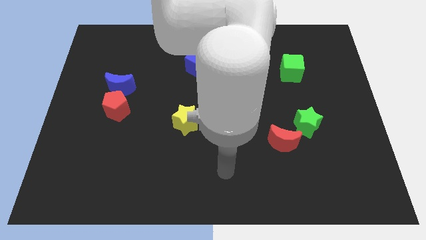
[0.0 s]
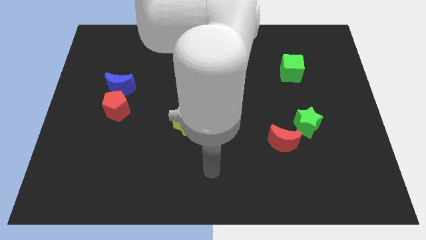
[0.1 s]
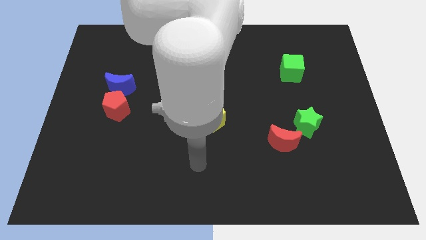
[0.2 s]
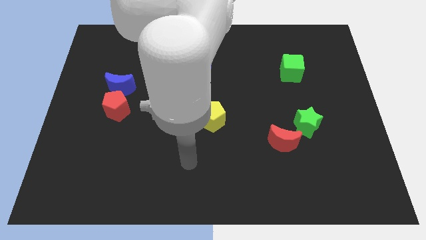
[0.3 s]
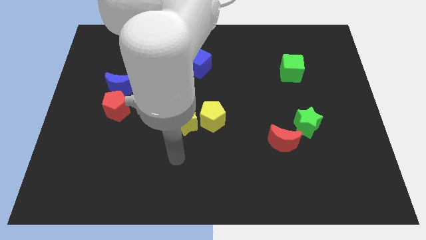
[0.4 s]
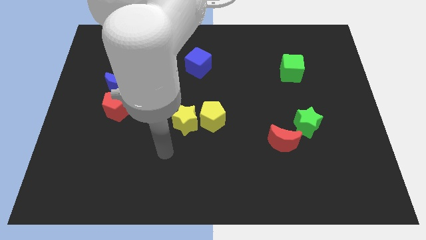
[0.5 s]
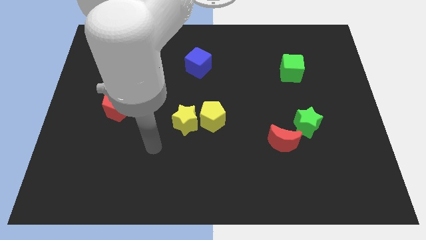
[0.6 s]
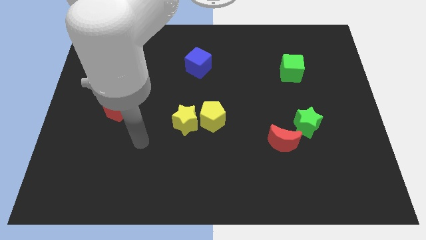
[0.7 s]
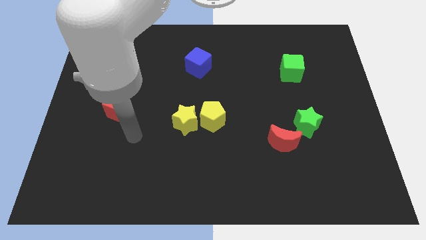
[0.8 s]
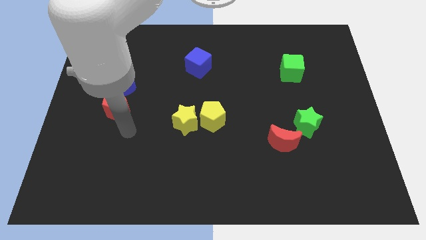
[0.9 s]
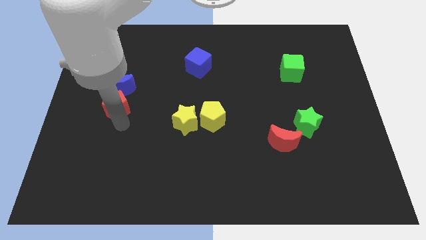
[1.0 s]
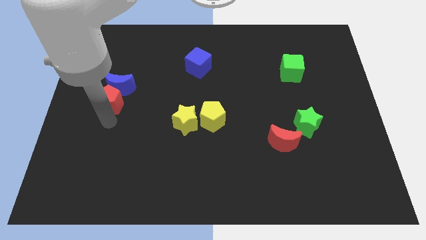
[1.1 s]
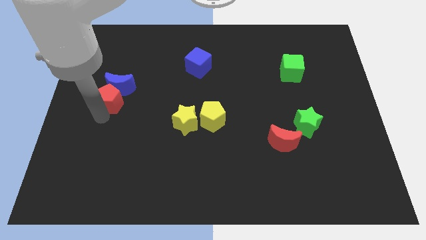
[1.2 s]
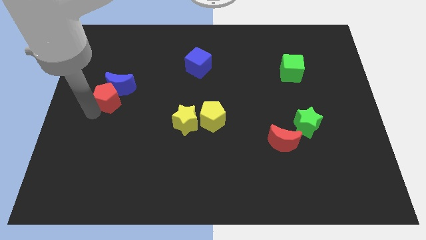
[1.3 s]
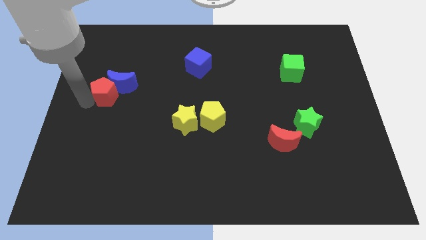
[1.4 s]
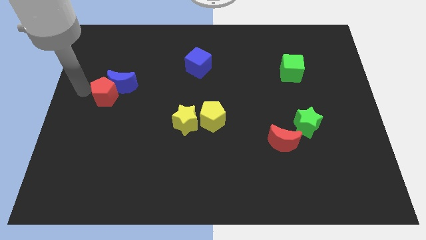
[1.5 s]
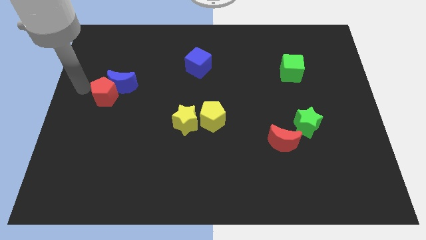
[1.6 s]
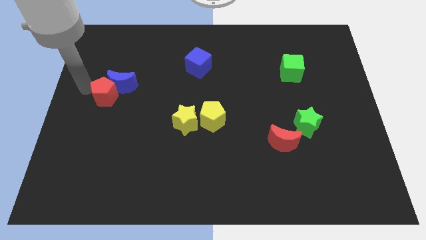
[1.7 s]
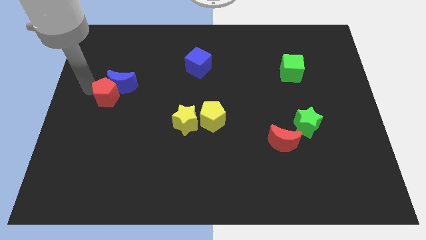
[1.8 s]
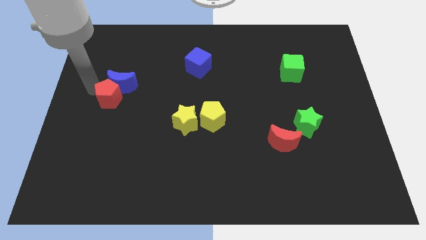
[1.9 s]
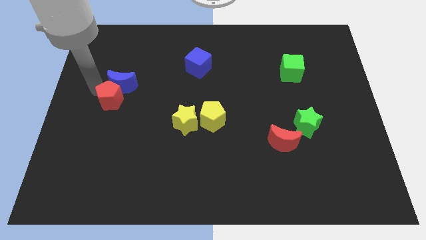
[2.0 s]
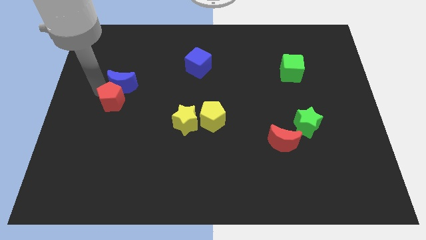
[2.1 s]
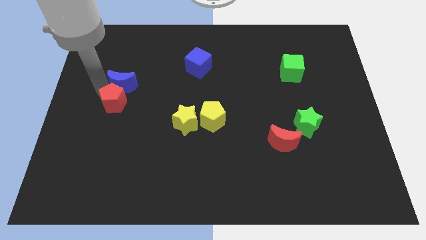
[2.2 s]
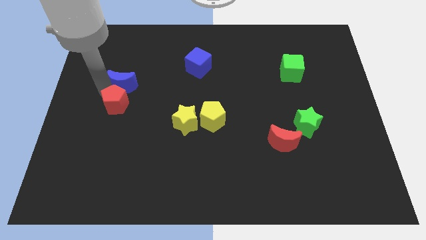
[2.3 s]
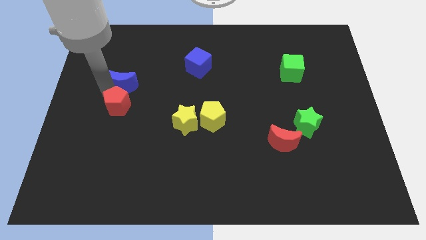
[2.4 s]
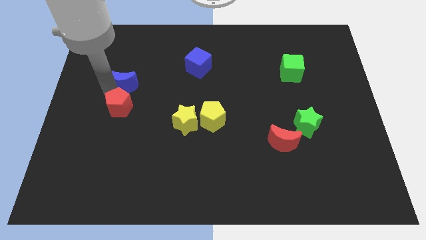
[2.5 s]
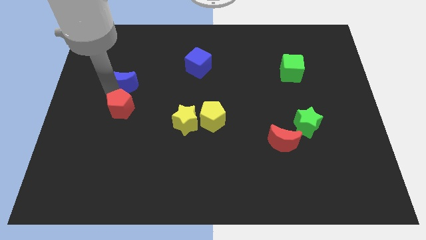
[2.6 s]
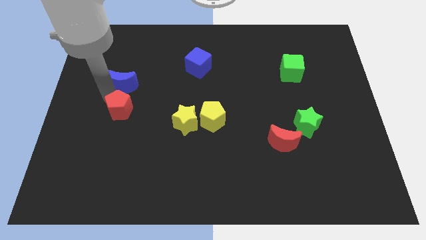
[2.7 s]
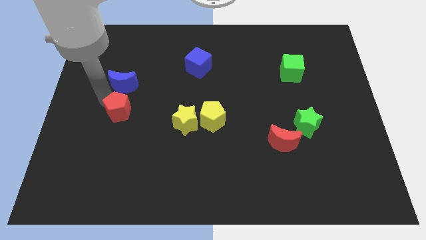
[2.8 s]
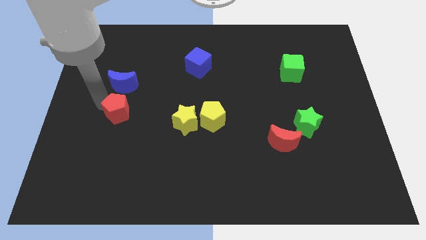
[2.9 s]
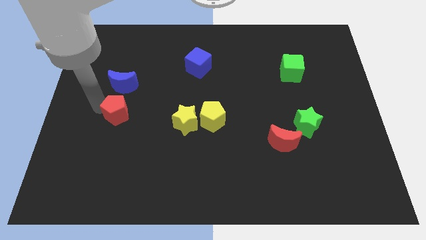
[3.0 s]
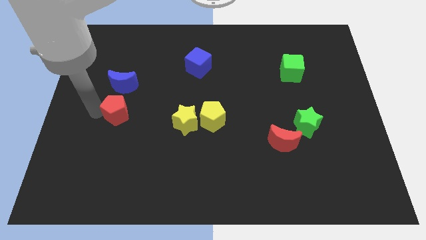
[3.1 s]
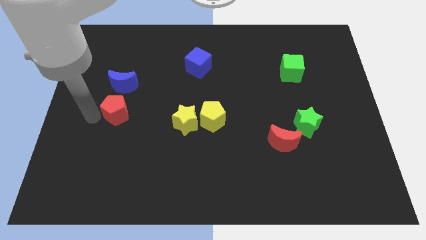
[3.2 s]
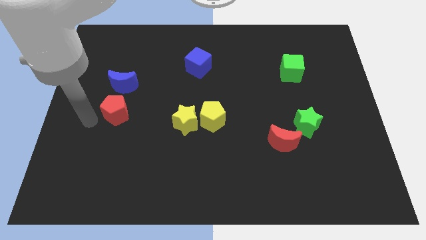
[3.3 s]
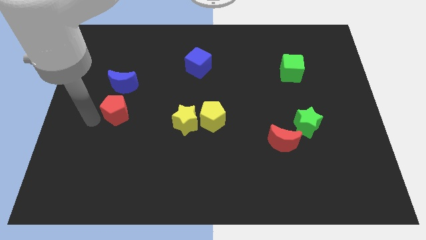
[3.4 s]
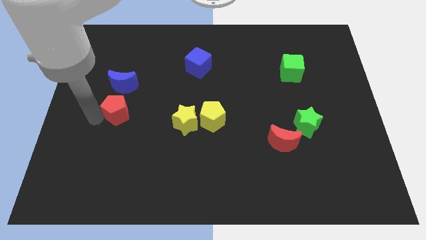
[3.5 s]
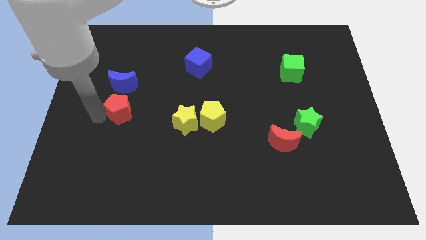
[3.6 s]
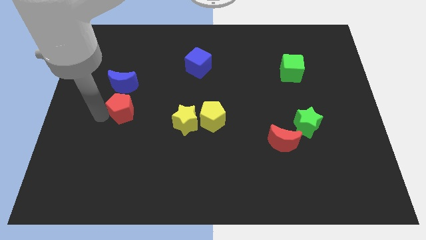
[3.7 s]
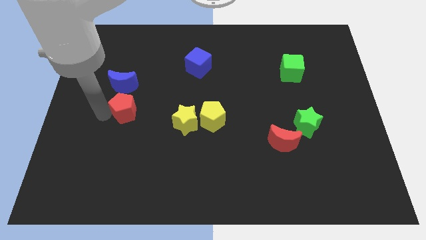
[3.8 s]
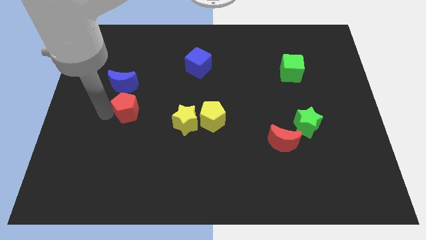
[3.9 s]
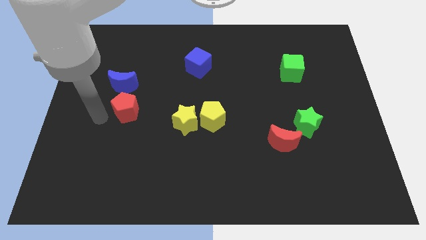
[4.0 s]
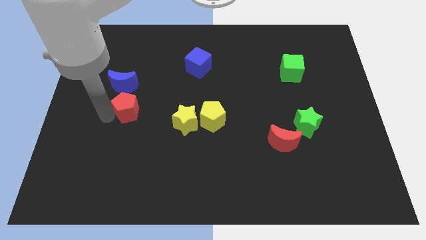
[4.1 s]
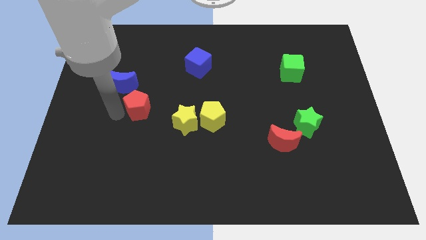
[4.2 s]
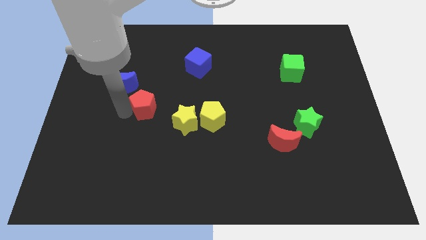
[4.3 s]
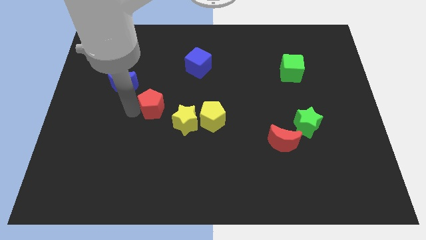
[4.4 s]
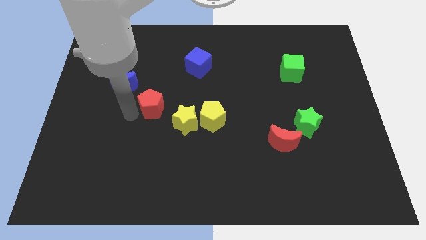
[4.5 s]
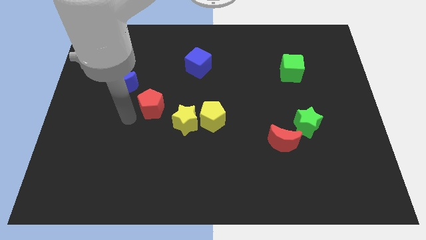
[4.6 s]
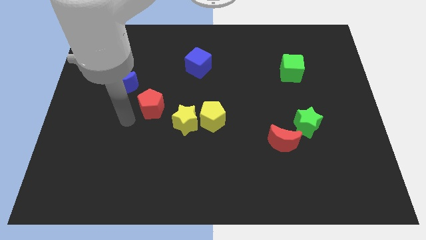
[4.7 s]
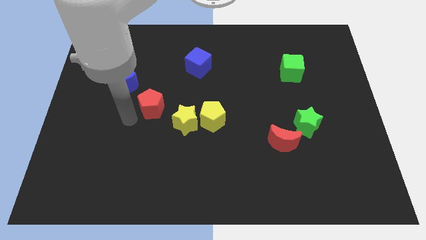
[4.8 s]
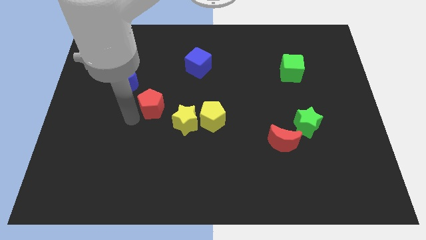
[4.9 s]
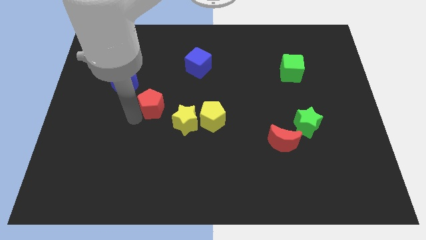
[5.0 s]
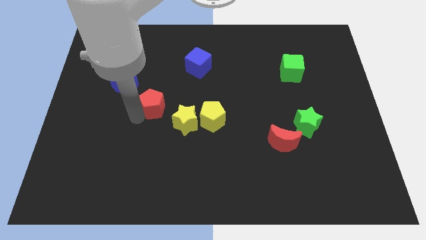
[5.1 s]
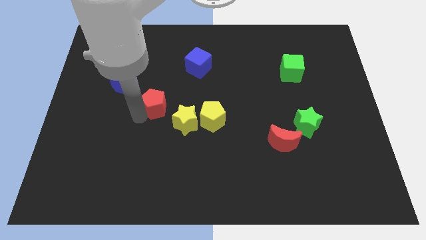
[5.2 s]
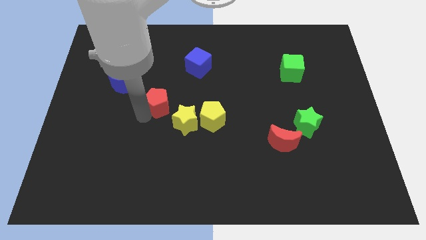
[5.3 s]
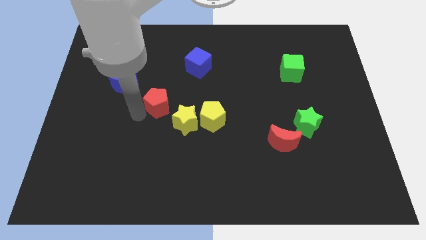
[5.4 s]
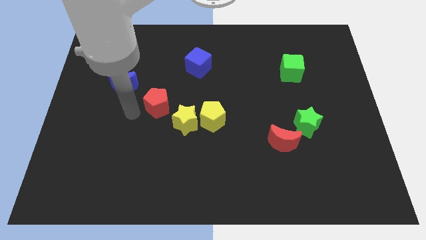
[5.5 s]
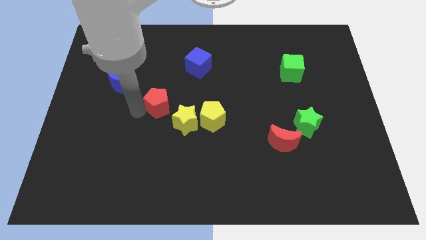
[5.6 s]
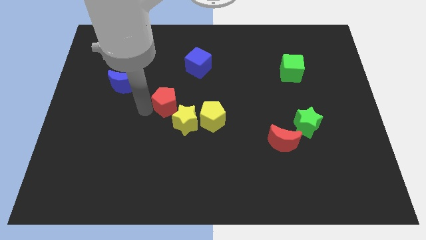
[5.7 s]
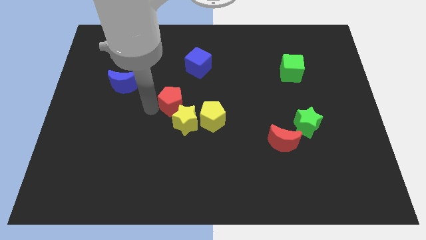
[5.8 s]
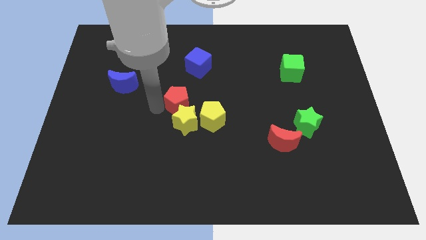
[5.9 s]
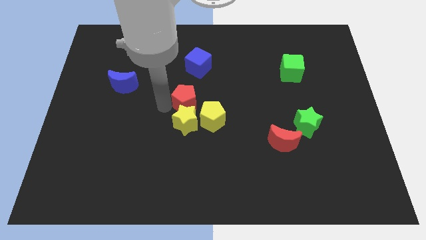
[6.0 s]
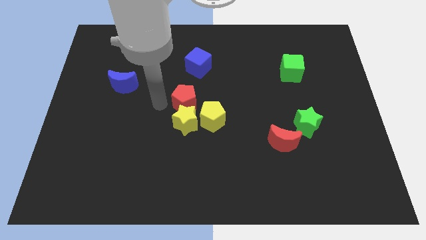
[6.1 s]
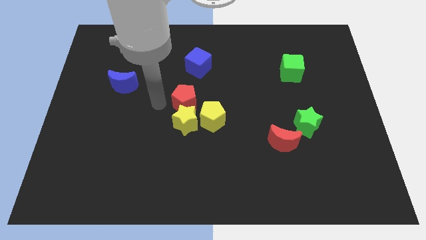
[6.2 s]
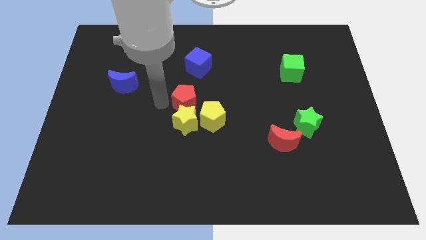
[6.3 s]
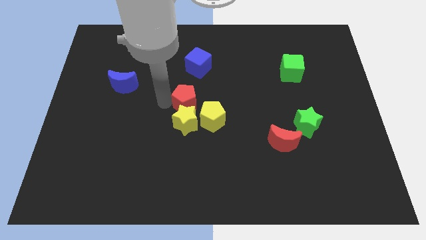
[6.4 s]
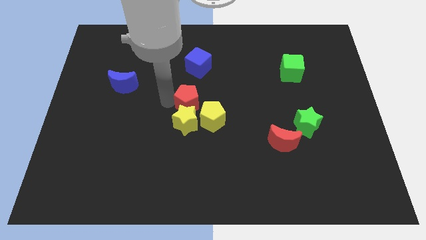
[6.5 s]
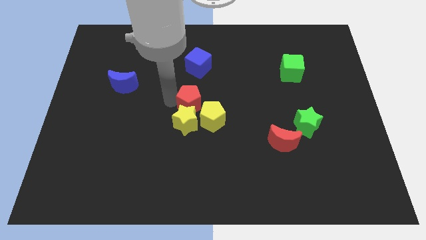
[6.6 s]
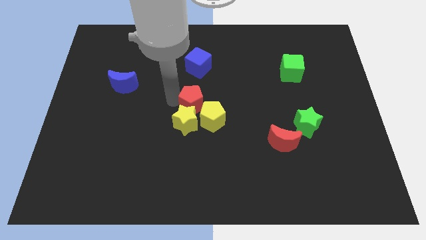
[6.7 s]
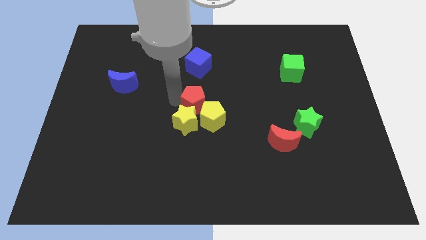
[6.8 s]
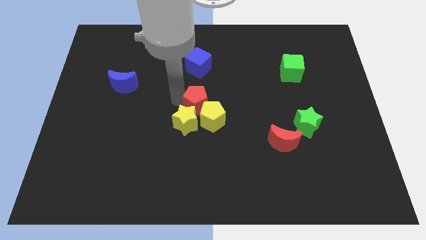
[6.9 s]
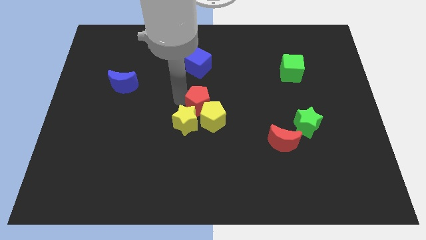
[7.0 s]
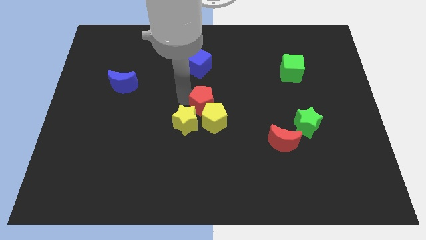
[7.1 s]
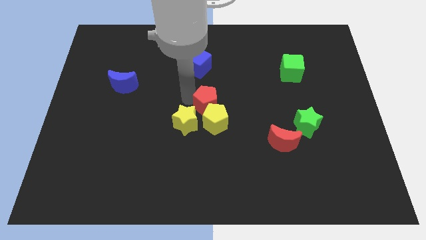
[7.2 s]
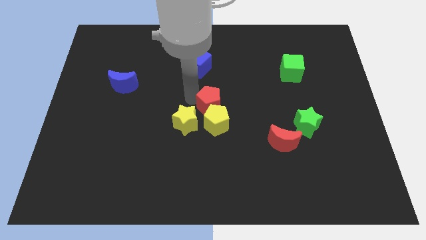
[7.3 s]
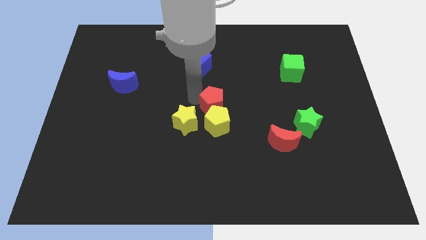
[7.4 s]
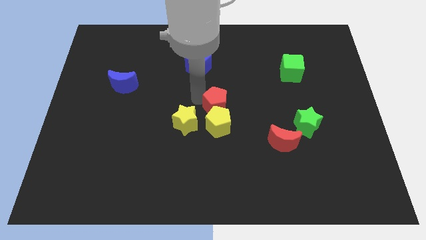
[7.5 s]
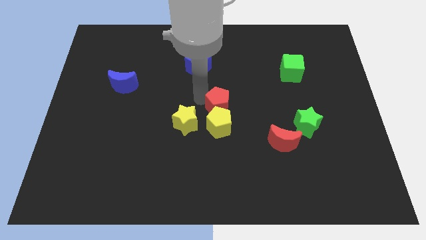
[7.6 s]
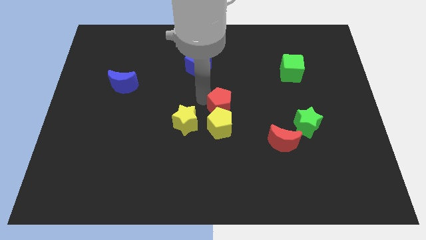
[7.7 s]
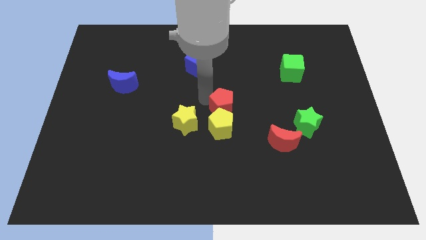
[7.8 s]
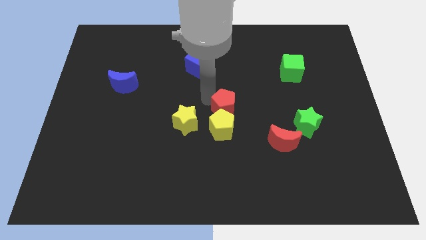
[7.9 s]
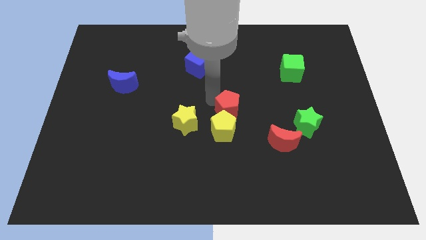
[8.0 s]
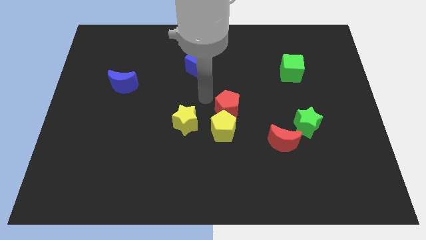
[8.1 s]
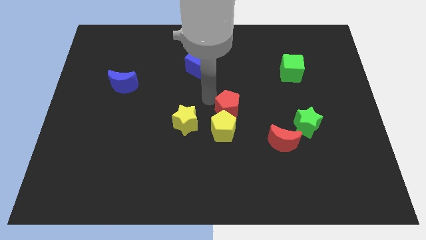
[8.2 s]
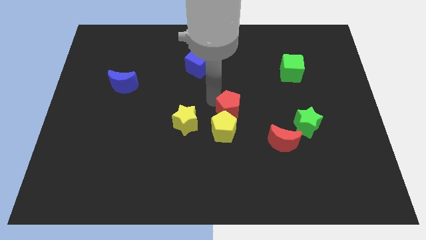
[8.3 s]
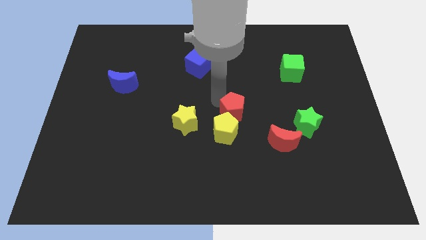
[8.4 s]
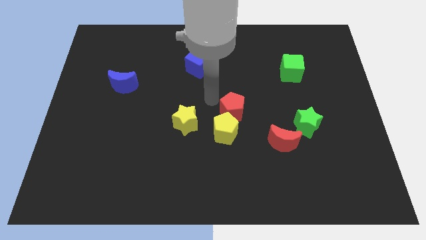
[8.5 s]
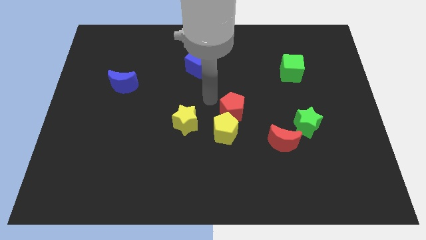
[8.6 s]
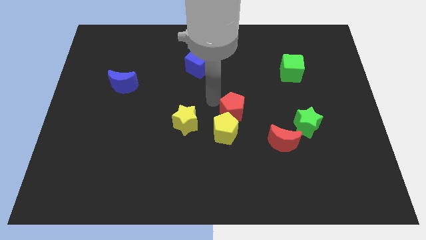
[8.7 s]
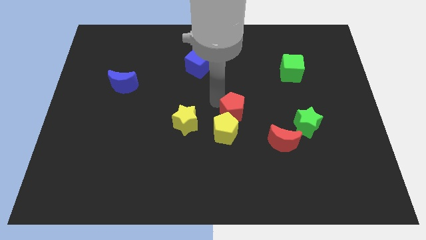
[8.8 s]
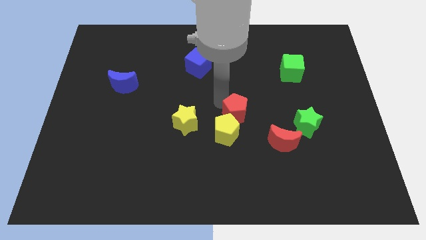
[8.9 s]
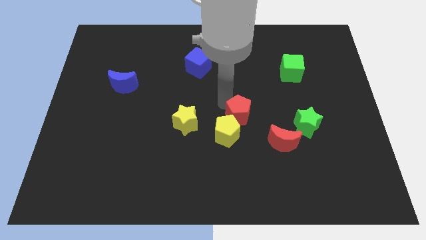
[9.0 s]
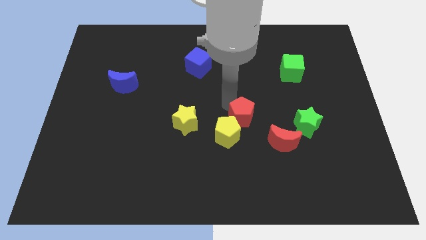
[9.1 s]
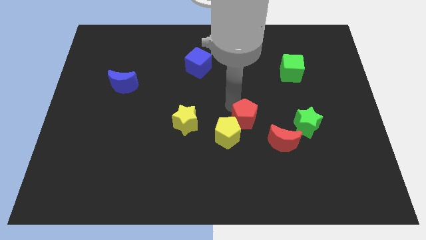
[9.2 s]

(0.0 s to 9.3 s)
move the red pentagon right of the yellow pentagon
